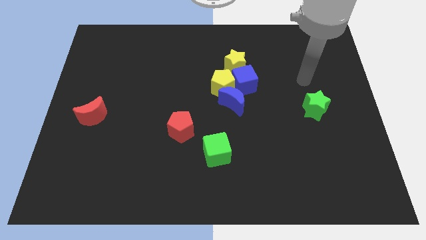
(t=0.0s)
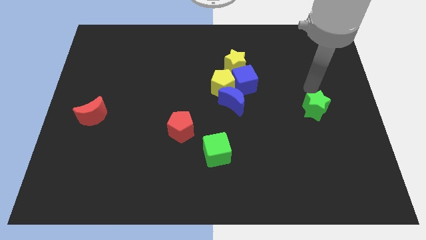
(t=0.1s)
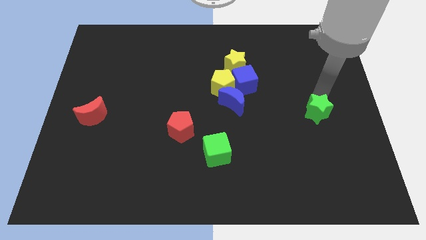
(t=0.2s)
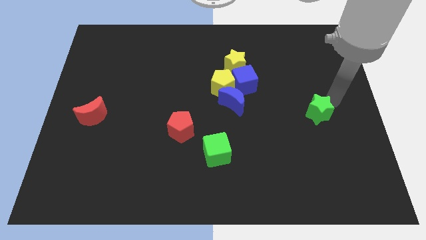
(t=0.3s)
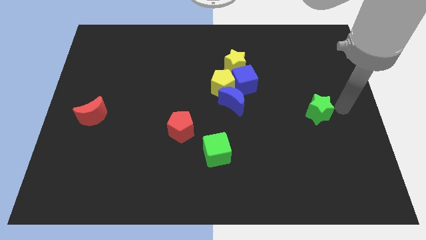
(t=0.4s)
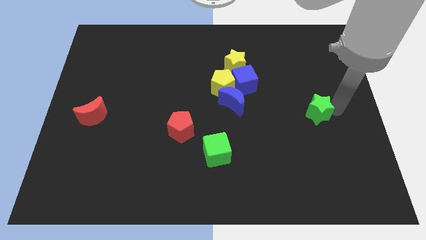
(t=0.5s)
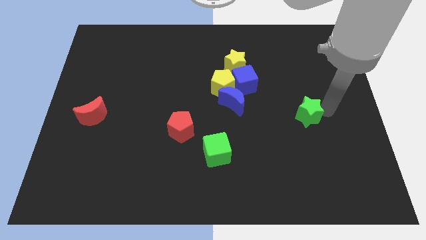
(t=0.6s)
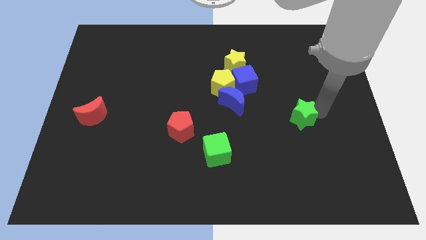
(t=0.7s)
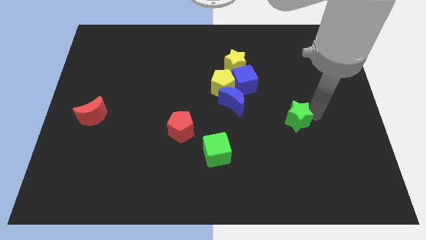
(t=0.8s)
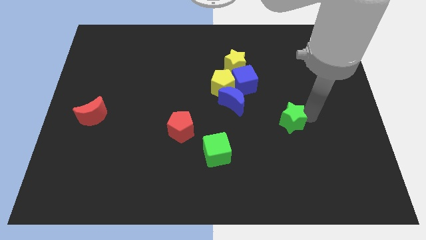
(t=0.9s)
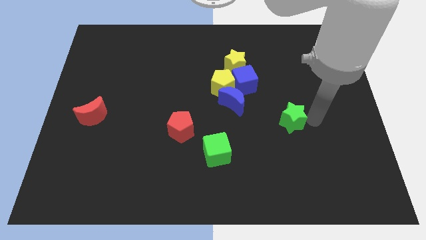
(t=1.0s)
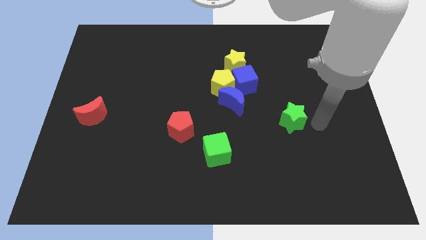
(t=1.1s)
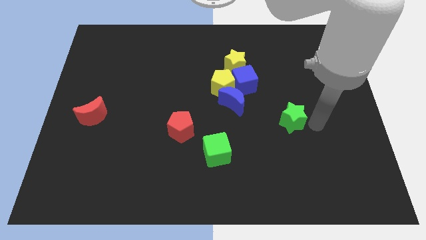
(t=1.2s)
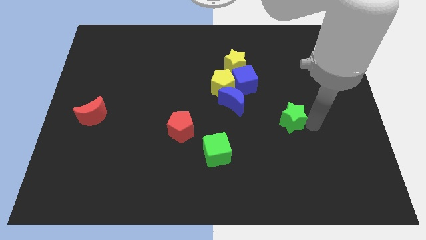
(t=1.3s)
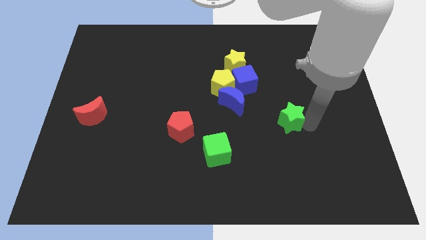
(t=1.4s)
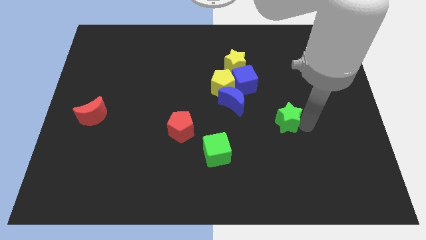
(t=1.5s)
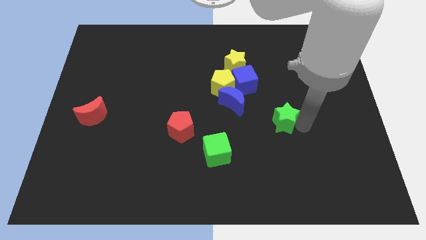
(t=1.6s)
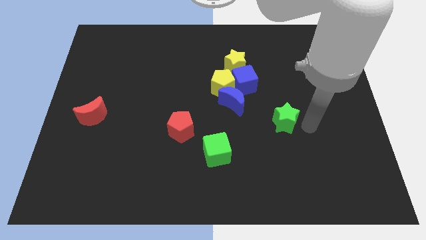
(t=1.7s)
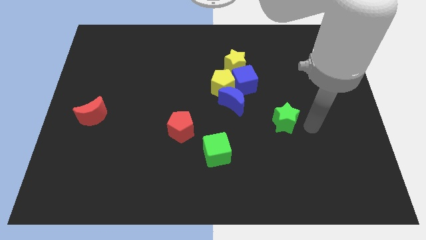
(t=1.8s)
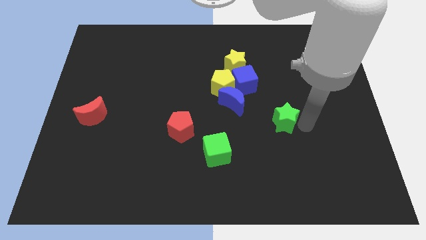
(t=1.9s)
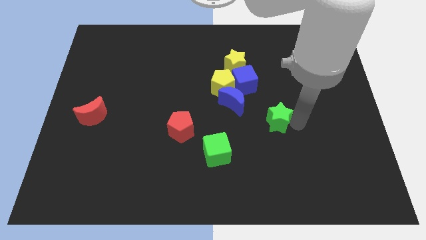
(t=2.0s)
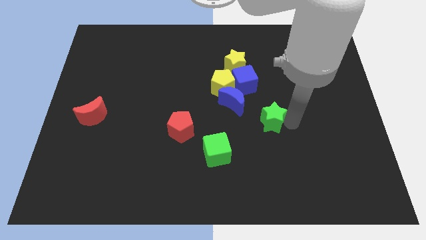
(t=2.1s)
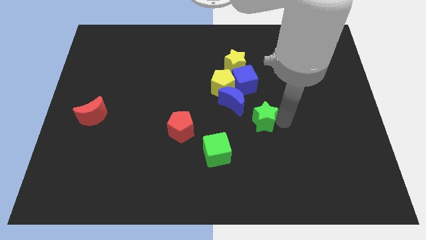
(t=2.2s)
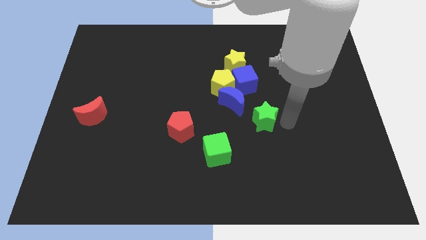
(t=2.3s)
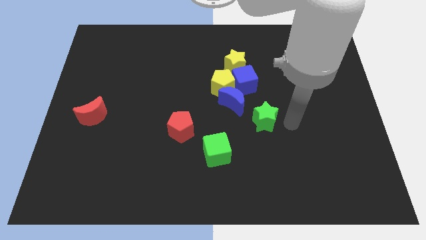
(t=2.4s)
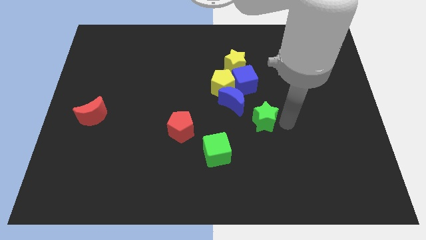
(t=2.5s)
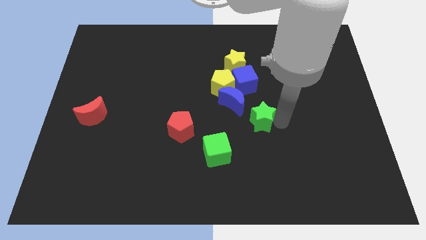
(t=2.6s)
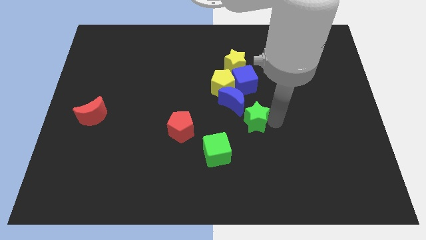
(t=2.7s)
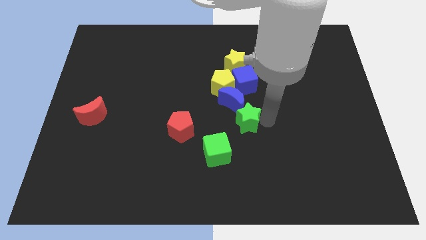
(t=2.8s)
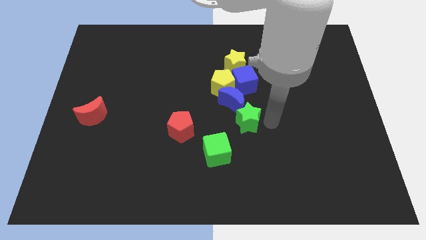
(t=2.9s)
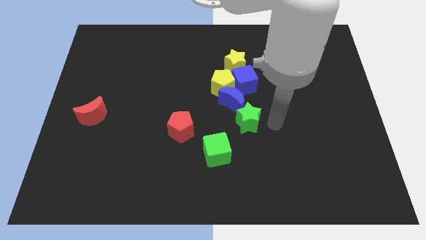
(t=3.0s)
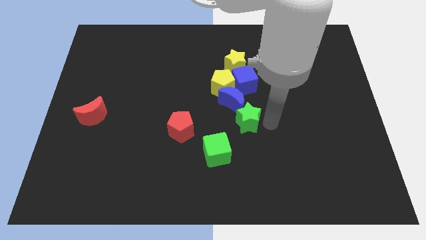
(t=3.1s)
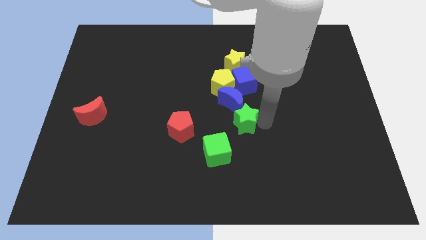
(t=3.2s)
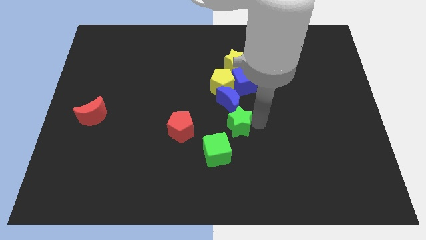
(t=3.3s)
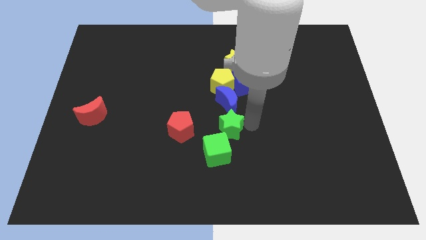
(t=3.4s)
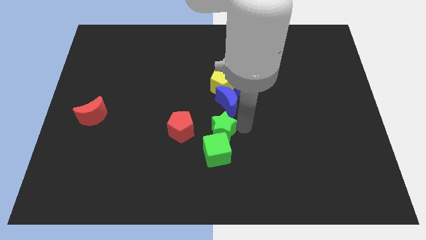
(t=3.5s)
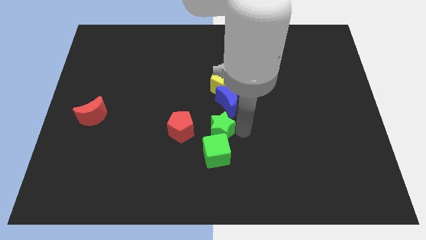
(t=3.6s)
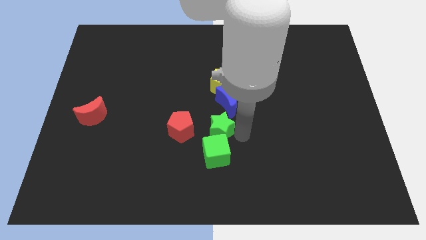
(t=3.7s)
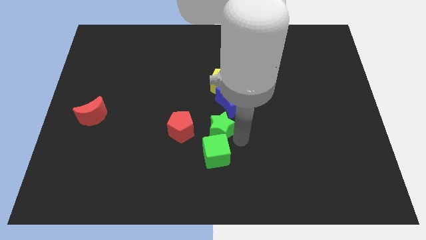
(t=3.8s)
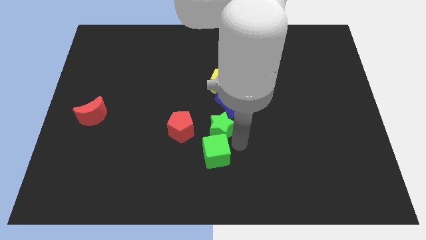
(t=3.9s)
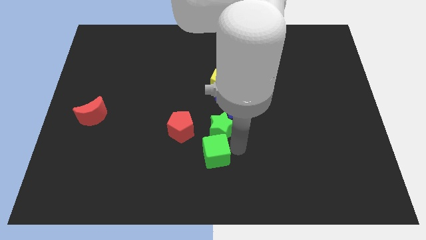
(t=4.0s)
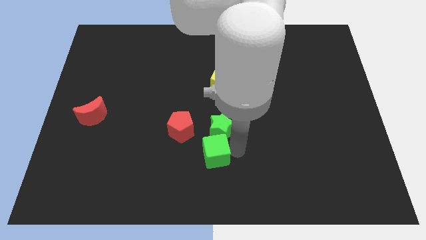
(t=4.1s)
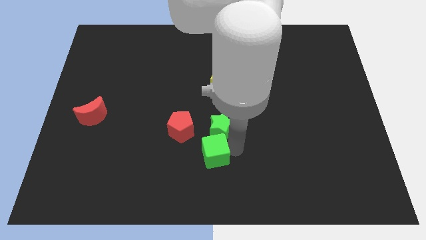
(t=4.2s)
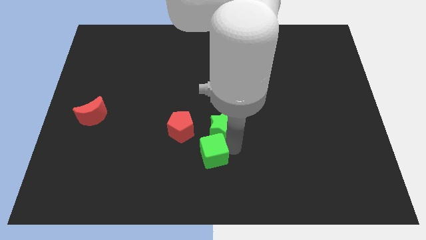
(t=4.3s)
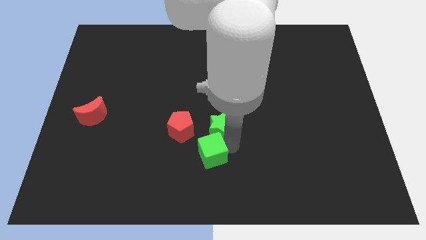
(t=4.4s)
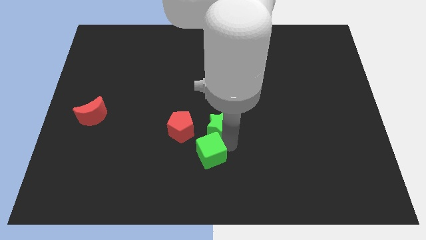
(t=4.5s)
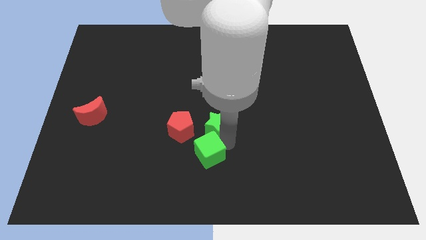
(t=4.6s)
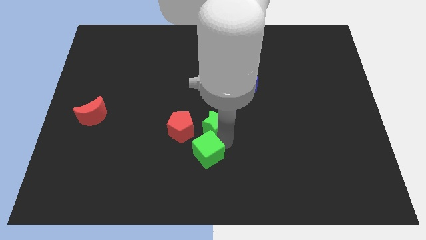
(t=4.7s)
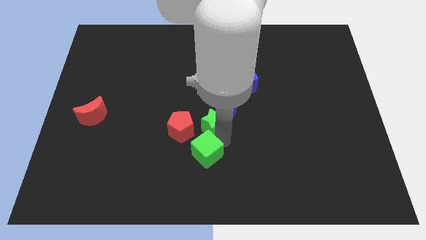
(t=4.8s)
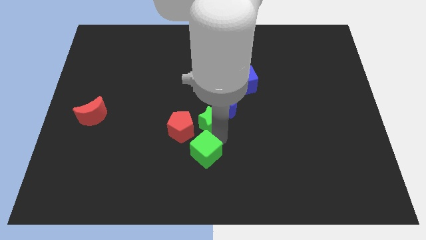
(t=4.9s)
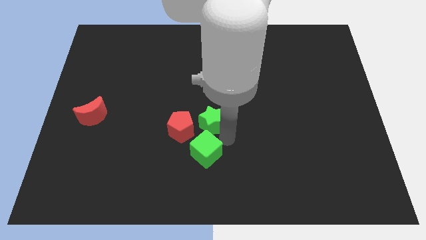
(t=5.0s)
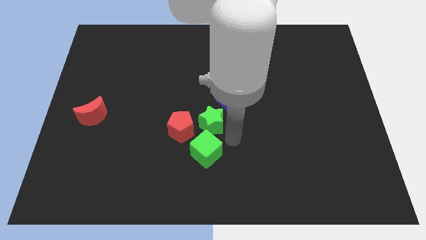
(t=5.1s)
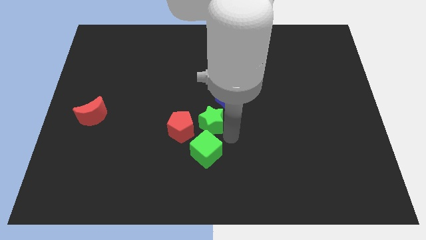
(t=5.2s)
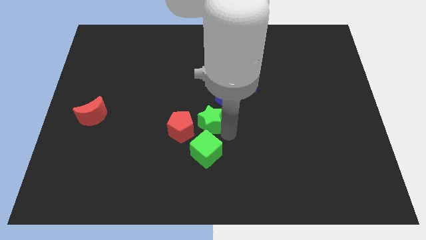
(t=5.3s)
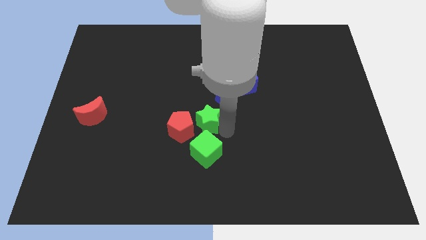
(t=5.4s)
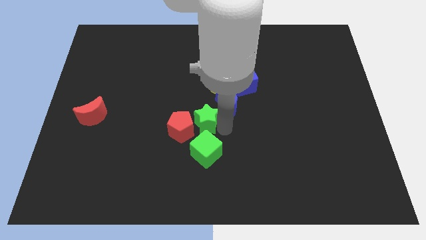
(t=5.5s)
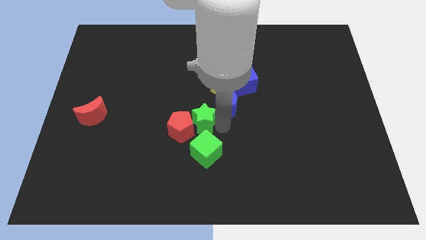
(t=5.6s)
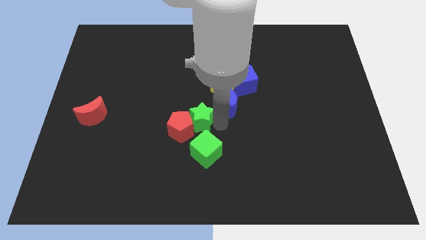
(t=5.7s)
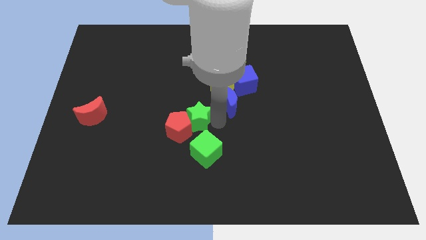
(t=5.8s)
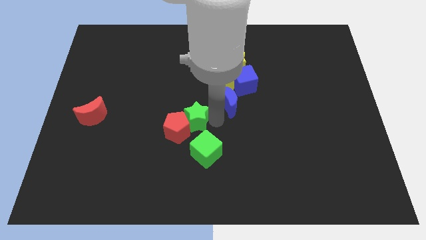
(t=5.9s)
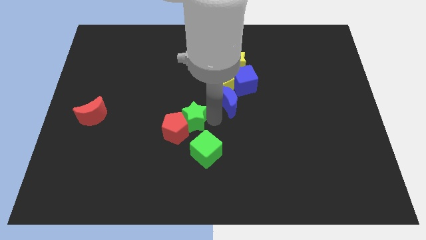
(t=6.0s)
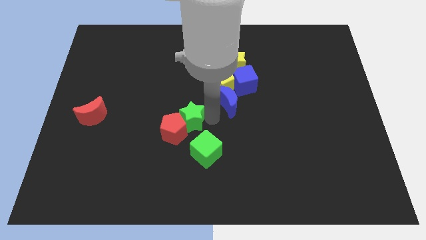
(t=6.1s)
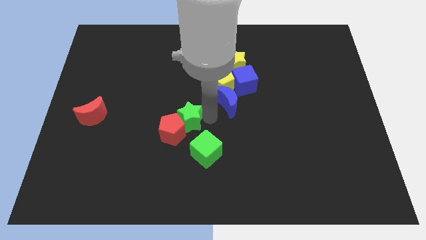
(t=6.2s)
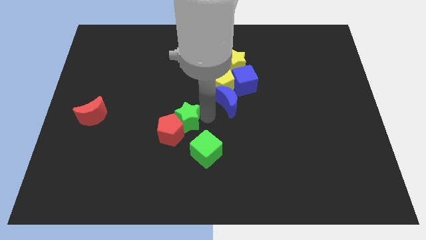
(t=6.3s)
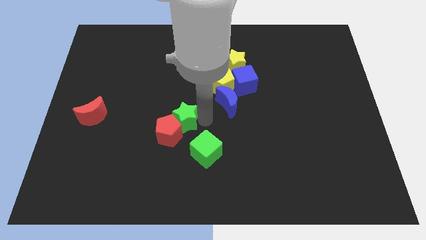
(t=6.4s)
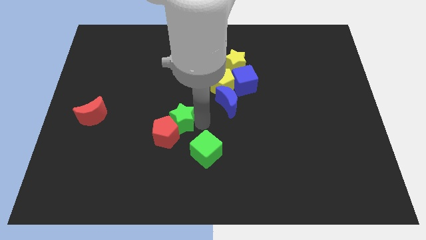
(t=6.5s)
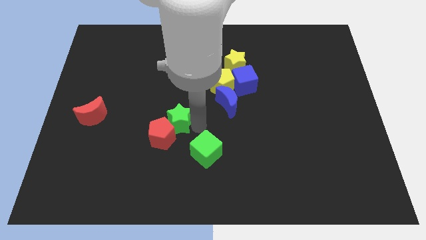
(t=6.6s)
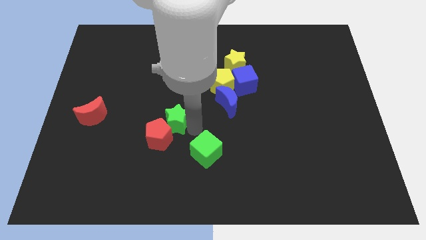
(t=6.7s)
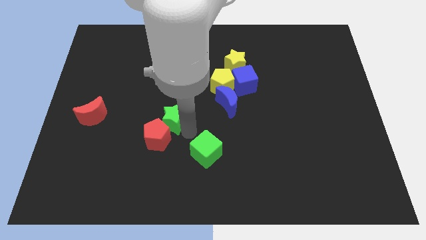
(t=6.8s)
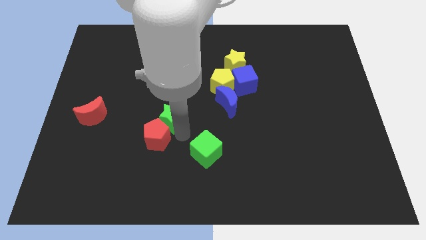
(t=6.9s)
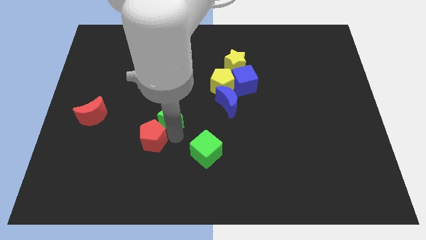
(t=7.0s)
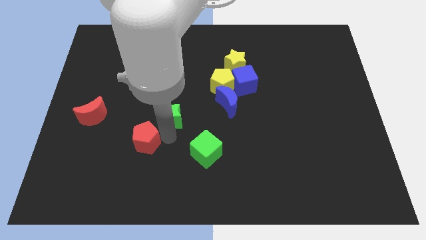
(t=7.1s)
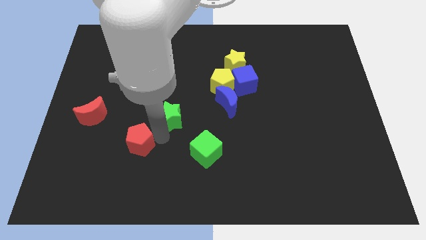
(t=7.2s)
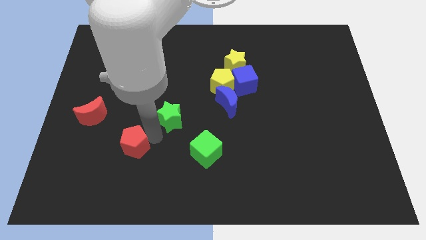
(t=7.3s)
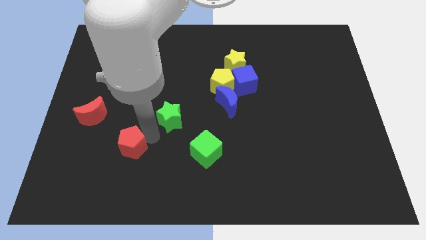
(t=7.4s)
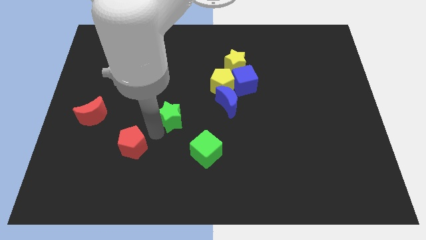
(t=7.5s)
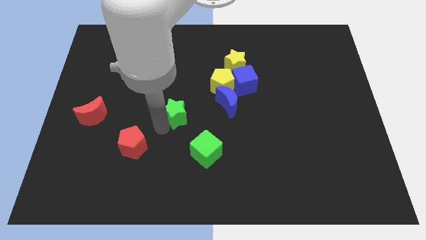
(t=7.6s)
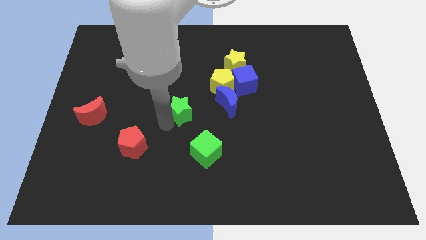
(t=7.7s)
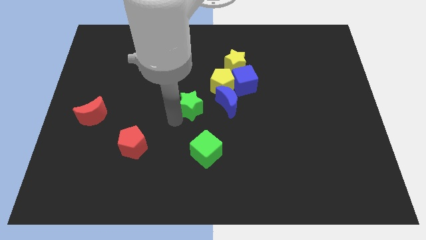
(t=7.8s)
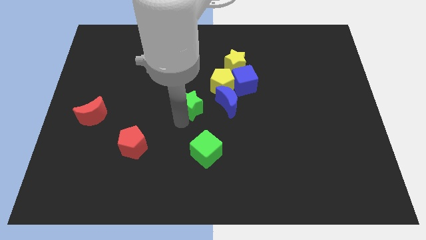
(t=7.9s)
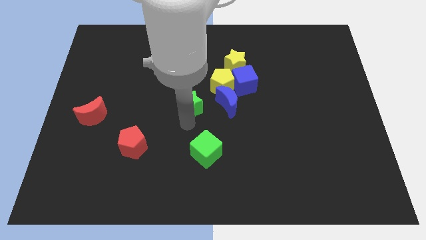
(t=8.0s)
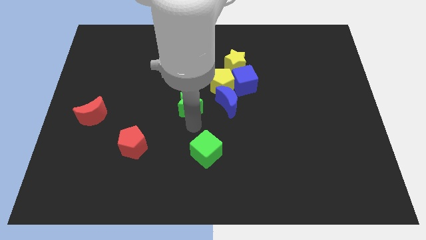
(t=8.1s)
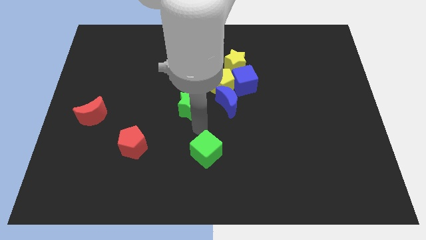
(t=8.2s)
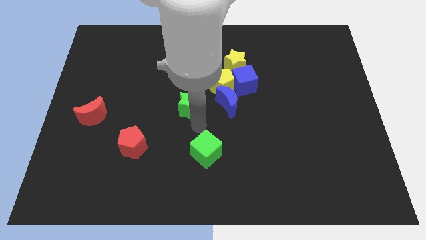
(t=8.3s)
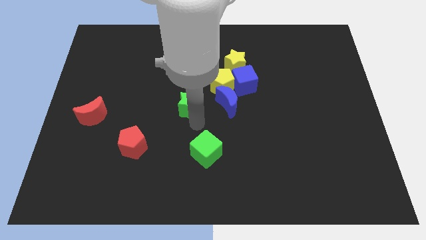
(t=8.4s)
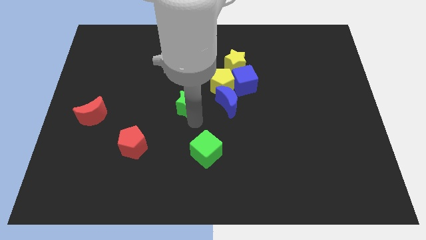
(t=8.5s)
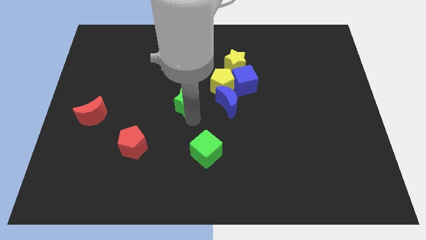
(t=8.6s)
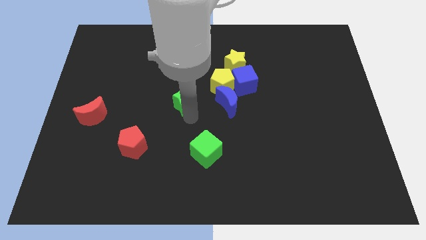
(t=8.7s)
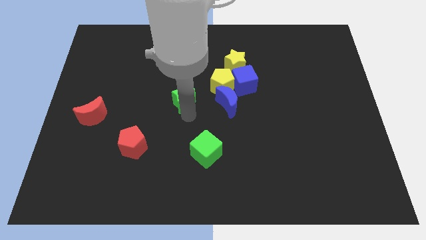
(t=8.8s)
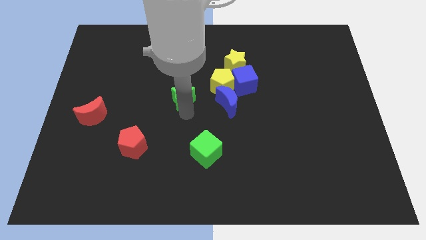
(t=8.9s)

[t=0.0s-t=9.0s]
move the green star to the left side of the yellow pentagon
